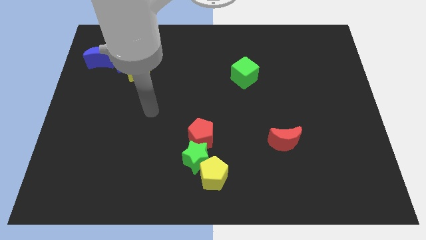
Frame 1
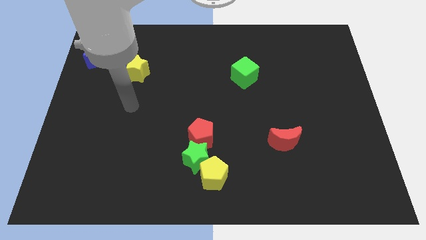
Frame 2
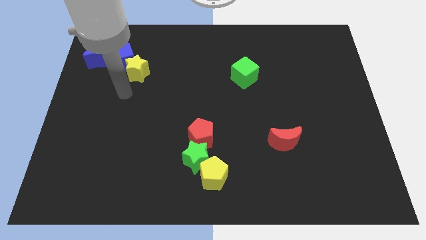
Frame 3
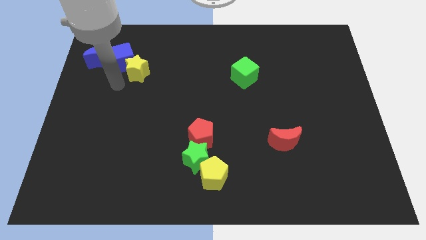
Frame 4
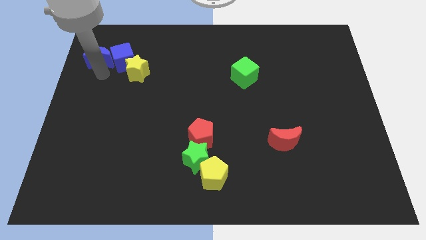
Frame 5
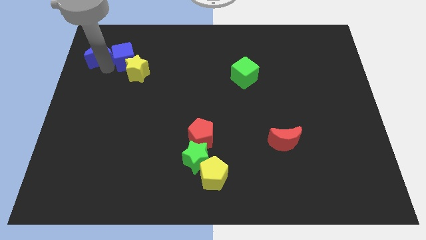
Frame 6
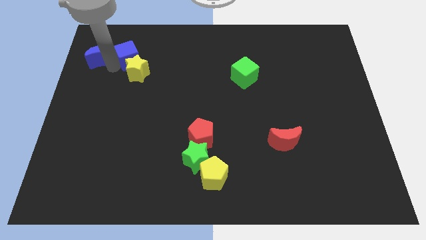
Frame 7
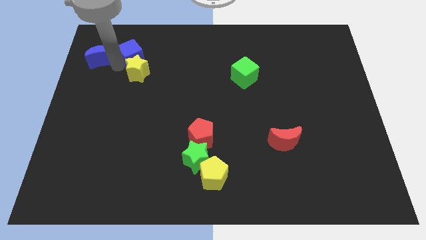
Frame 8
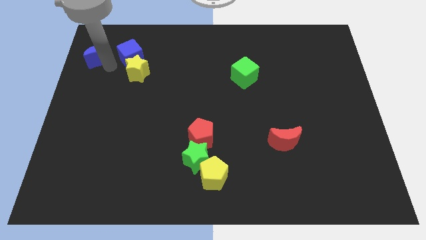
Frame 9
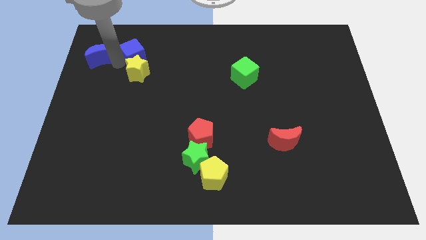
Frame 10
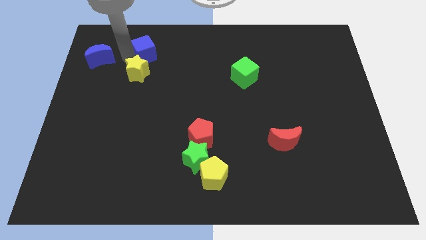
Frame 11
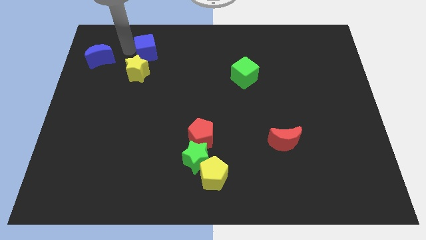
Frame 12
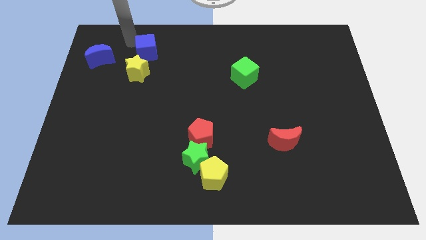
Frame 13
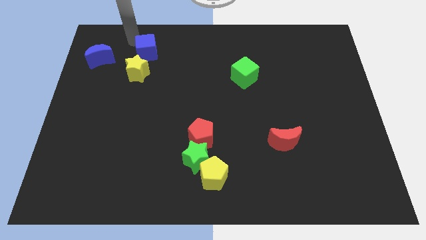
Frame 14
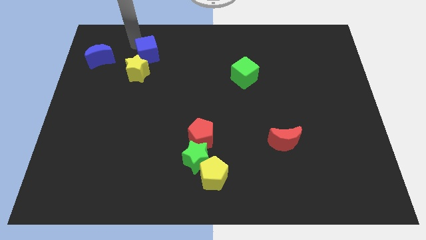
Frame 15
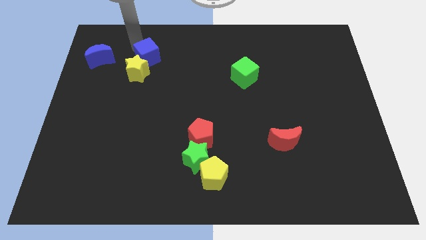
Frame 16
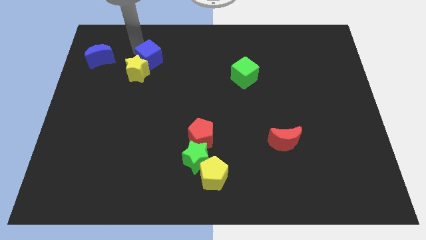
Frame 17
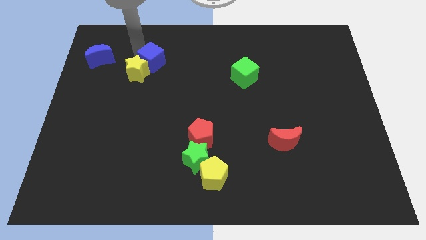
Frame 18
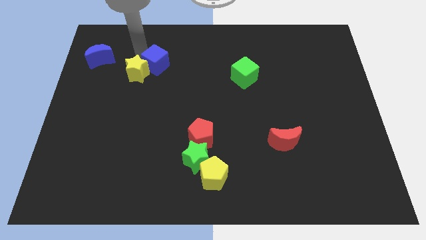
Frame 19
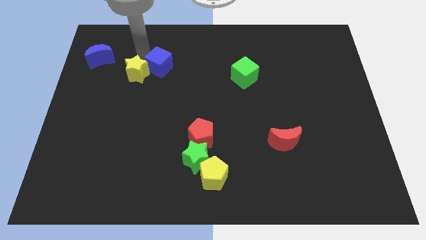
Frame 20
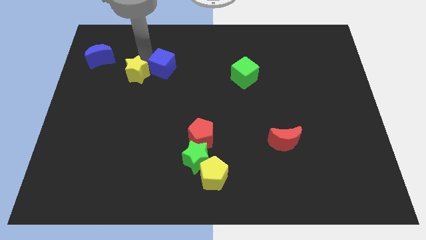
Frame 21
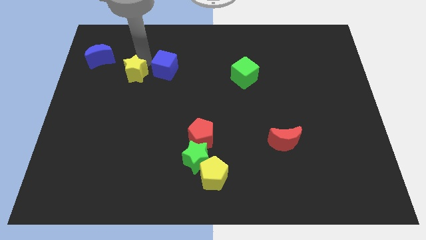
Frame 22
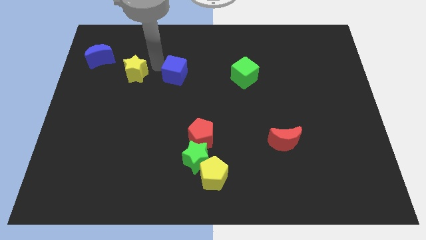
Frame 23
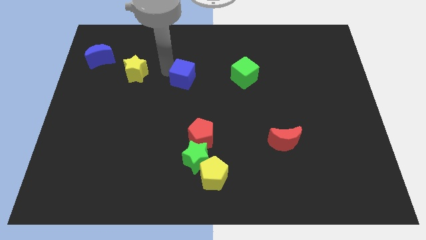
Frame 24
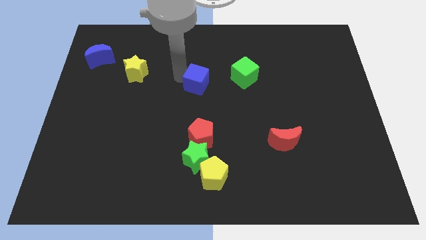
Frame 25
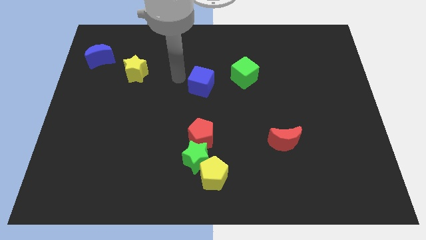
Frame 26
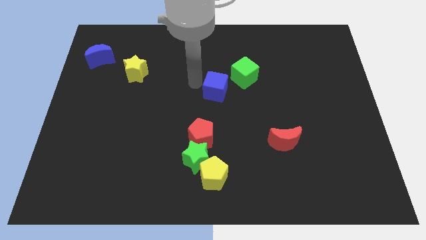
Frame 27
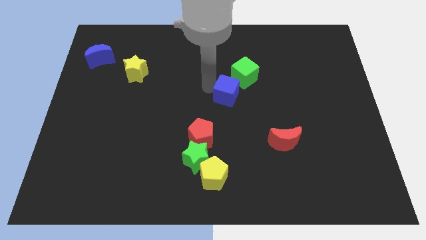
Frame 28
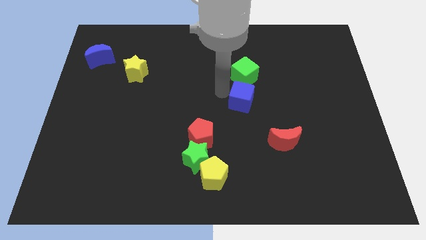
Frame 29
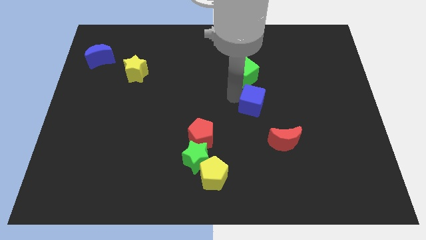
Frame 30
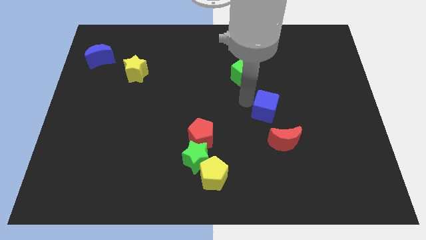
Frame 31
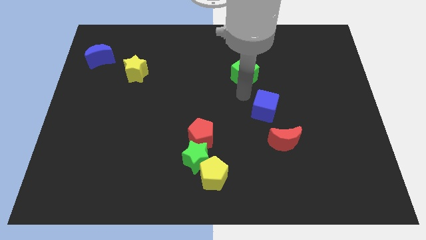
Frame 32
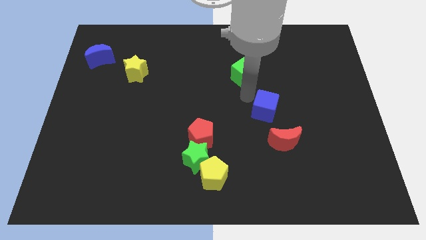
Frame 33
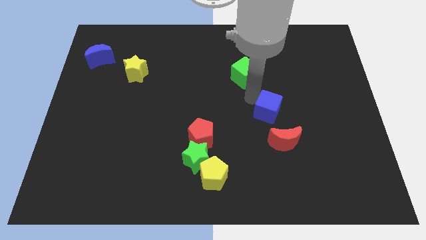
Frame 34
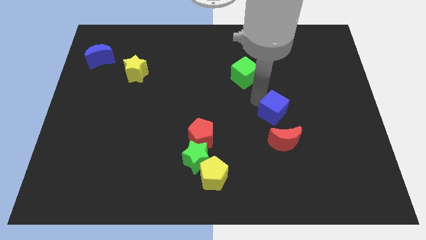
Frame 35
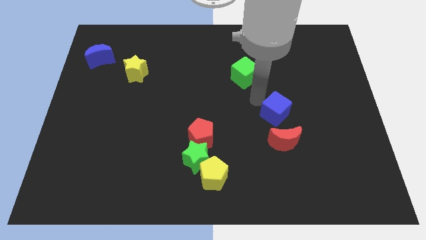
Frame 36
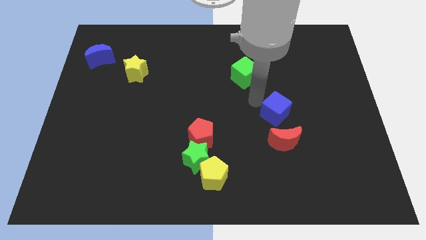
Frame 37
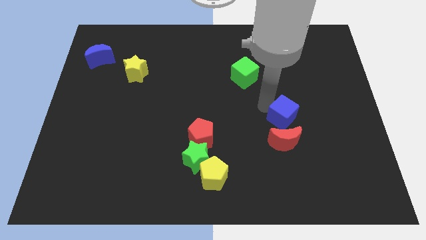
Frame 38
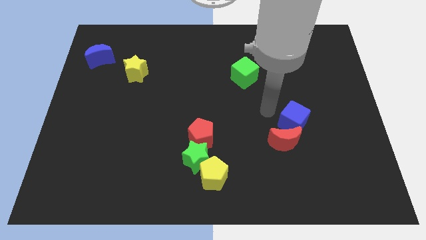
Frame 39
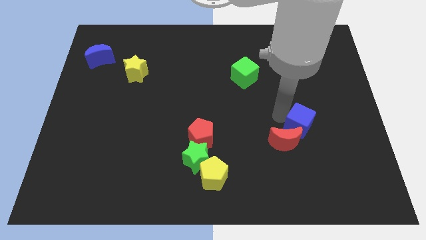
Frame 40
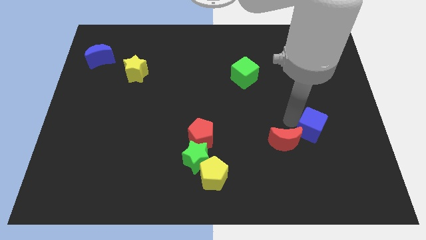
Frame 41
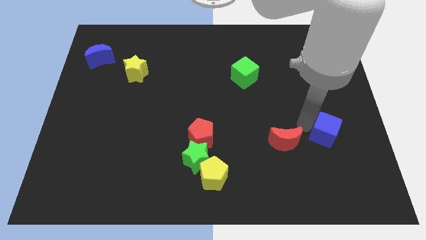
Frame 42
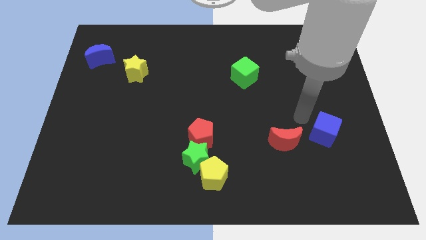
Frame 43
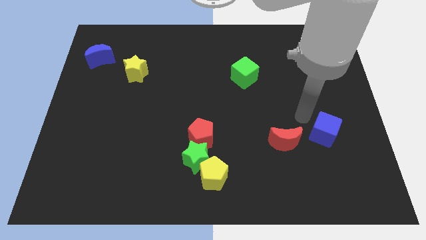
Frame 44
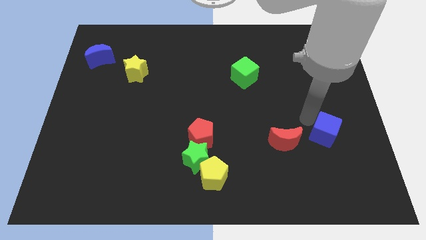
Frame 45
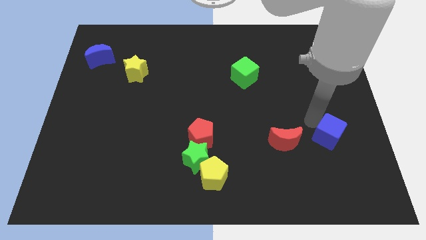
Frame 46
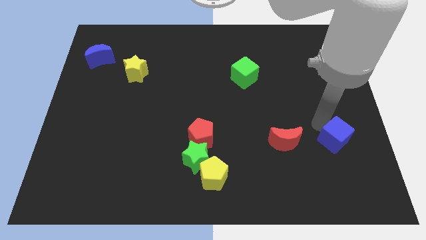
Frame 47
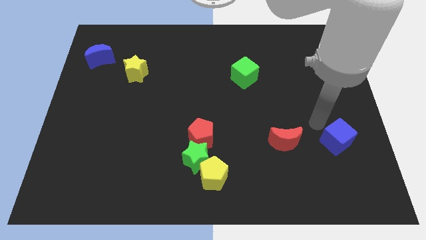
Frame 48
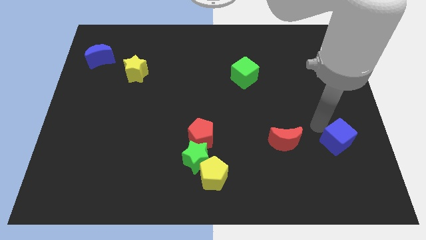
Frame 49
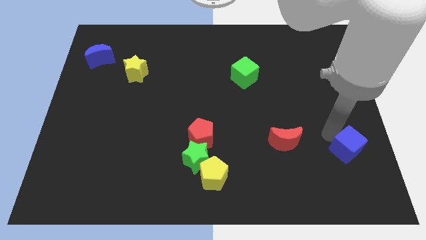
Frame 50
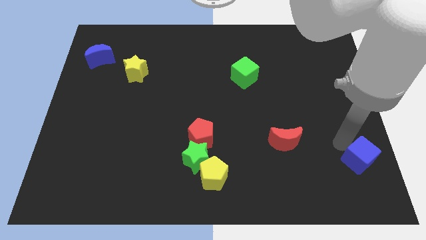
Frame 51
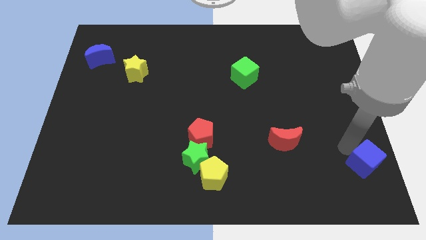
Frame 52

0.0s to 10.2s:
move the blue cube to the lower right corner

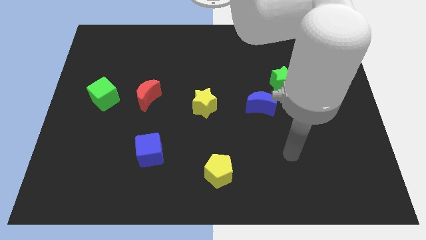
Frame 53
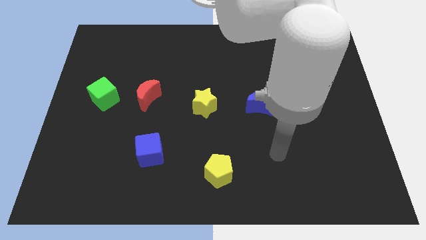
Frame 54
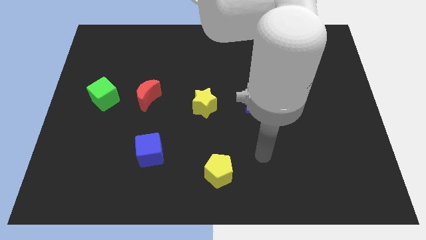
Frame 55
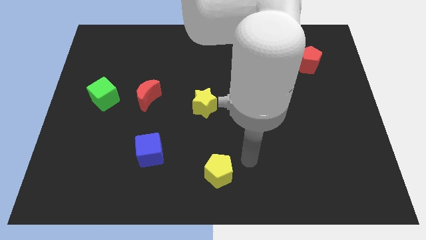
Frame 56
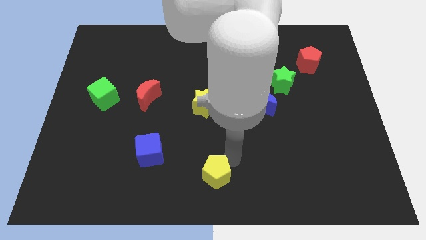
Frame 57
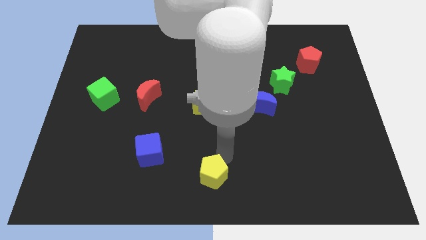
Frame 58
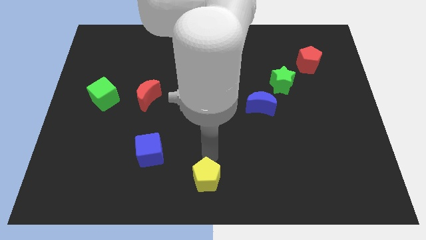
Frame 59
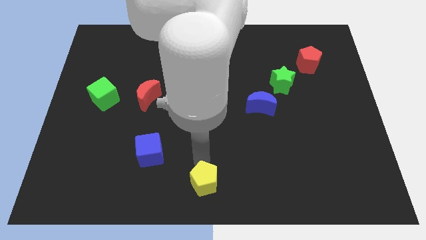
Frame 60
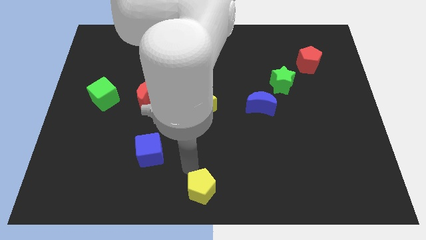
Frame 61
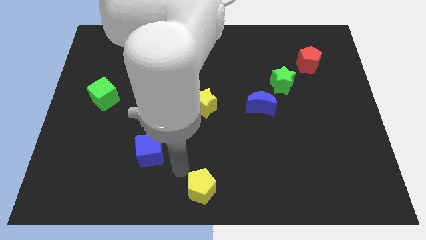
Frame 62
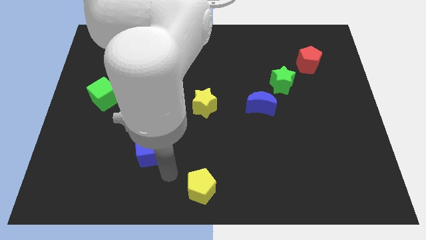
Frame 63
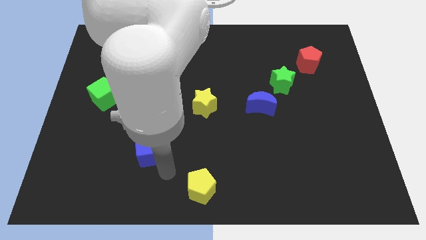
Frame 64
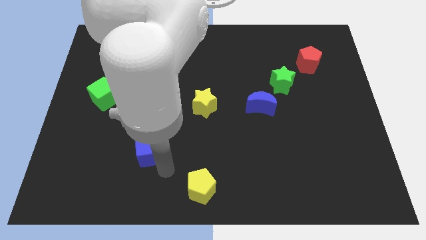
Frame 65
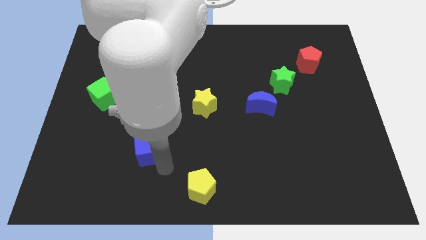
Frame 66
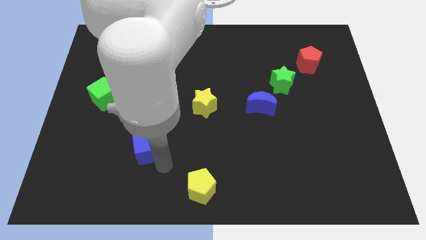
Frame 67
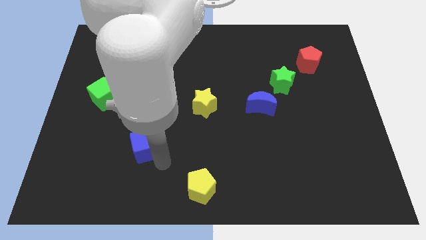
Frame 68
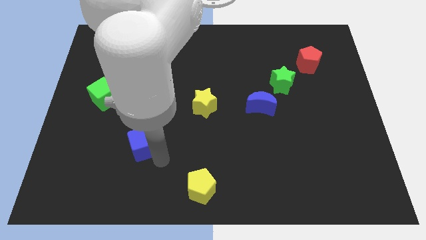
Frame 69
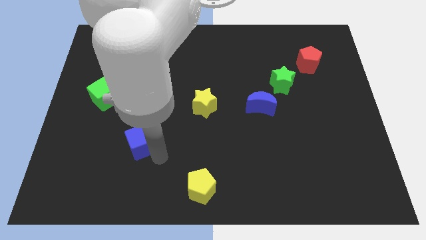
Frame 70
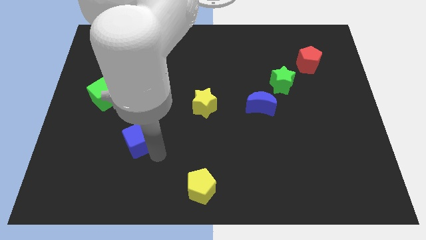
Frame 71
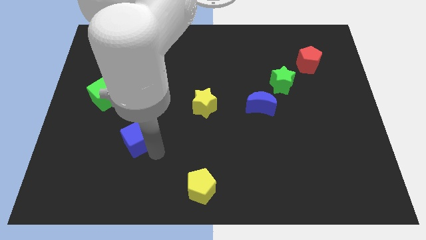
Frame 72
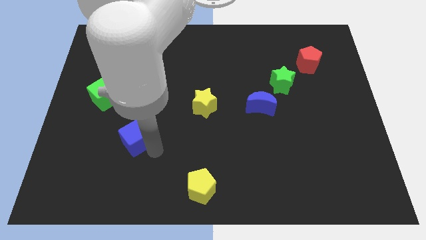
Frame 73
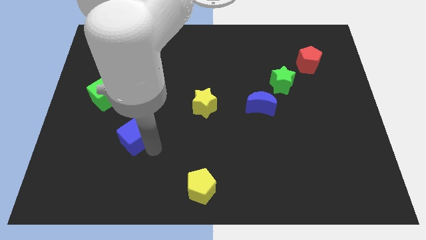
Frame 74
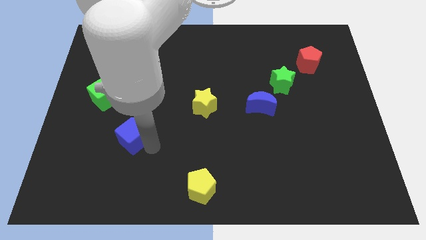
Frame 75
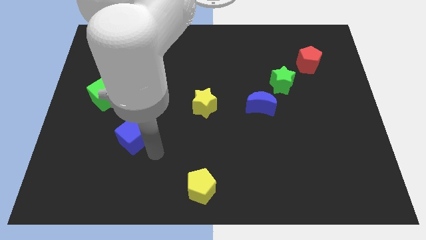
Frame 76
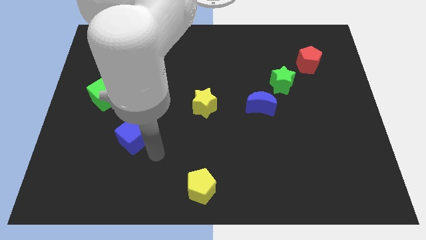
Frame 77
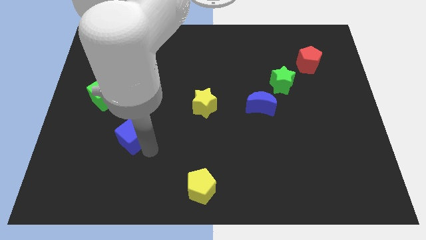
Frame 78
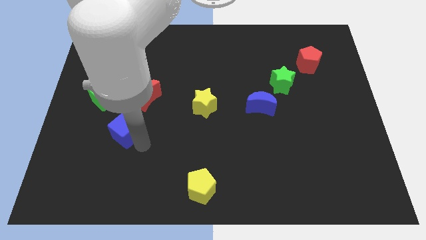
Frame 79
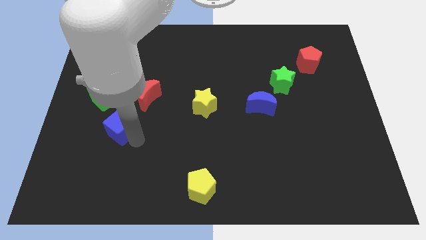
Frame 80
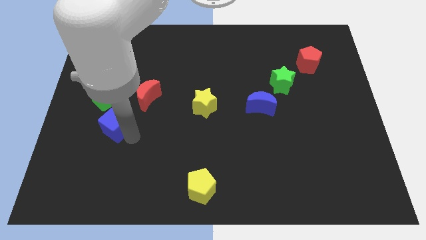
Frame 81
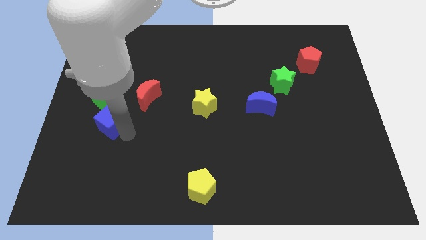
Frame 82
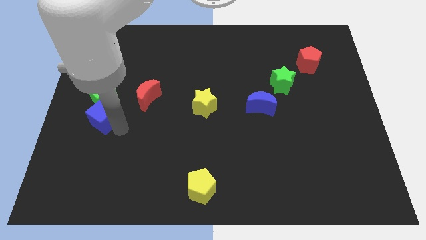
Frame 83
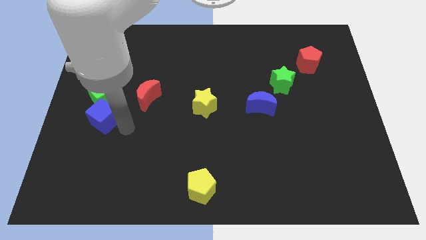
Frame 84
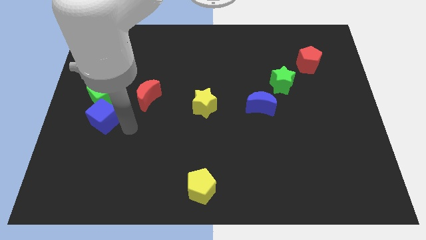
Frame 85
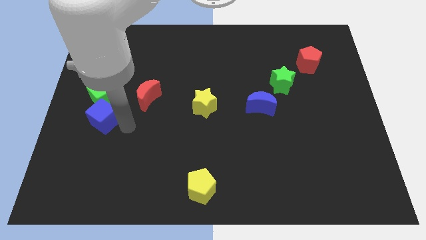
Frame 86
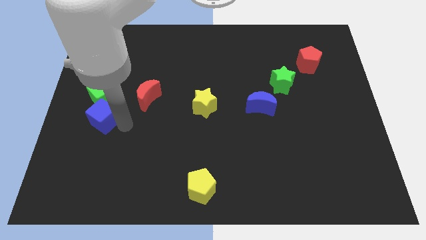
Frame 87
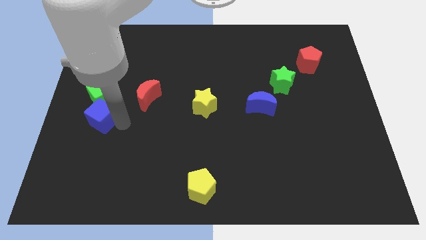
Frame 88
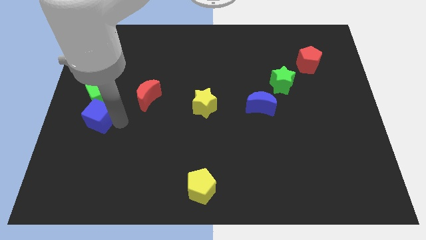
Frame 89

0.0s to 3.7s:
slide the blue cube to the center left
